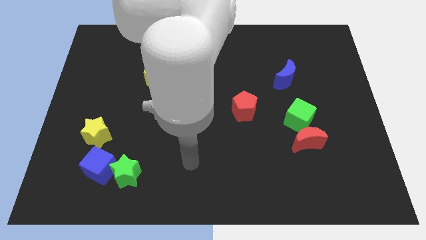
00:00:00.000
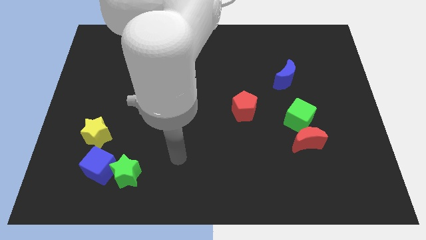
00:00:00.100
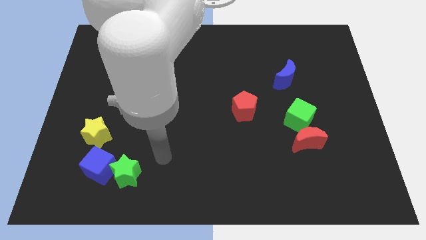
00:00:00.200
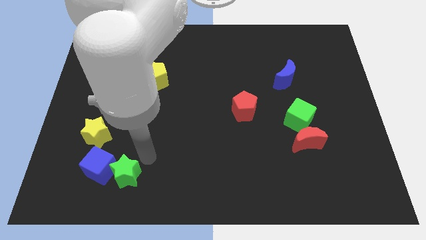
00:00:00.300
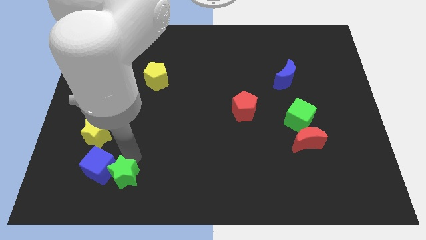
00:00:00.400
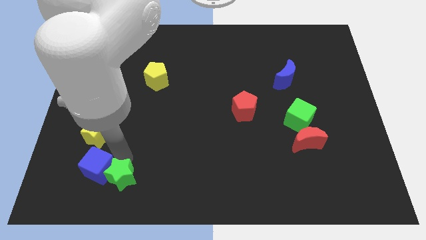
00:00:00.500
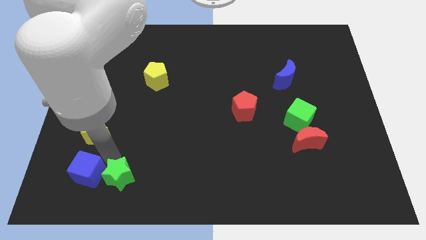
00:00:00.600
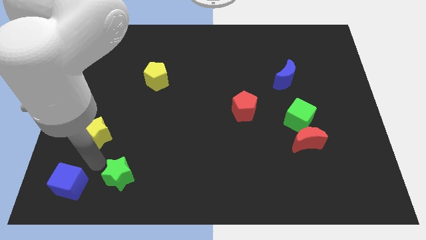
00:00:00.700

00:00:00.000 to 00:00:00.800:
move the green star away from the blue cube

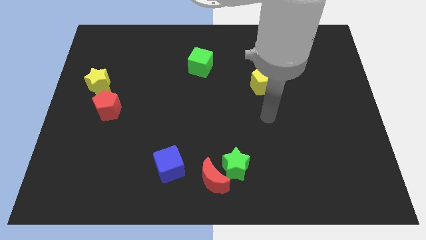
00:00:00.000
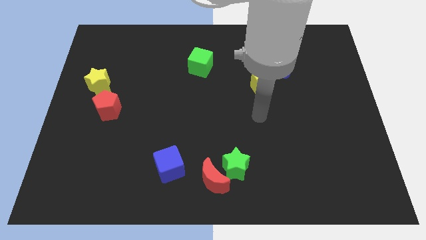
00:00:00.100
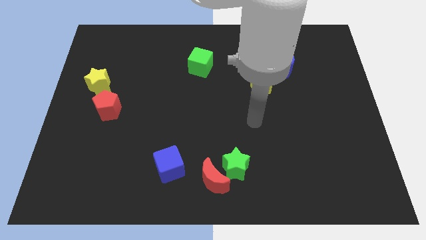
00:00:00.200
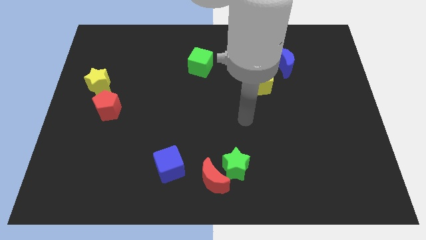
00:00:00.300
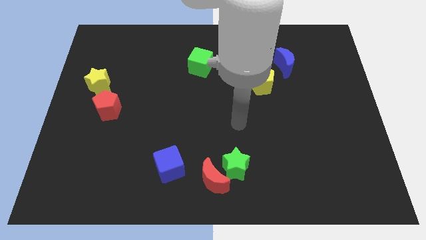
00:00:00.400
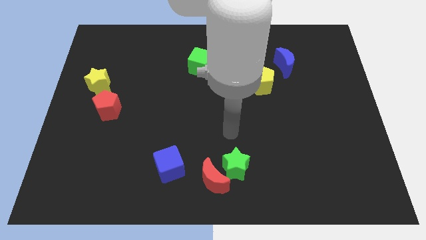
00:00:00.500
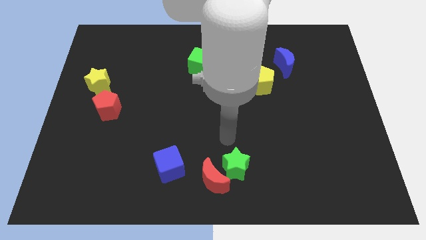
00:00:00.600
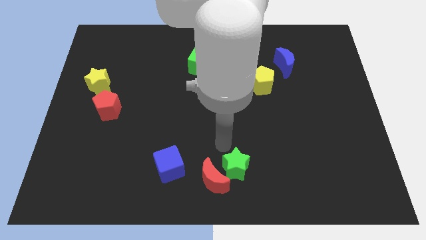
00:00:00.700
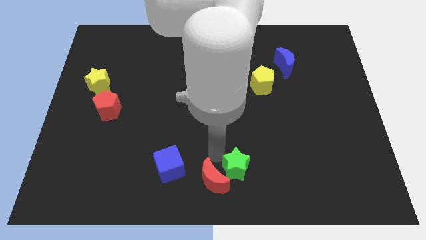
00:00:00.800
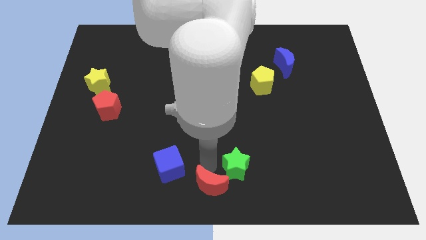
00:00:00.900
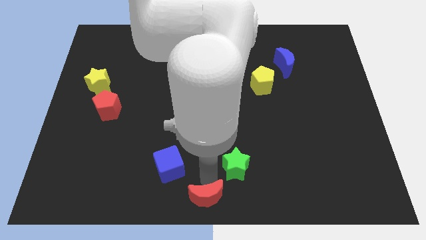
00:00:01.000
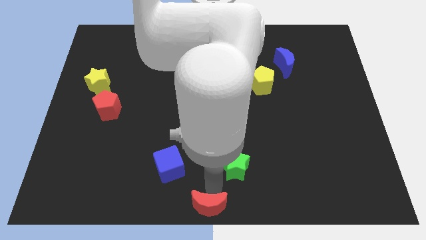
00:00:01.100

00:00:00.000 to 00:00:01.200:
separate the green star from the red moon

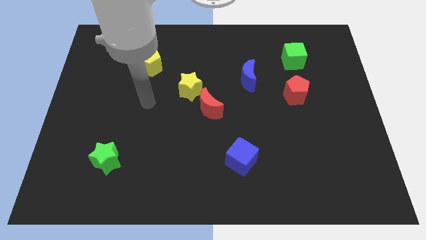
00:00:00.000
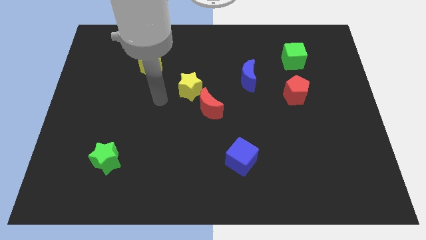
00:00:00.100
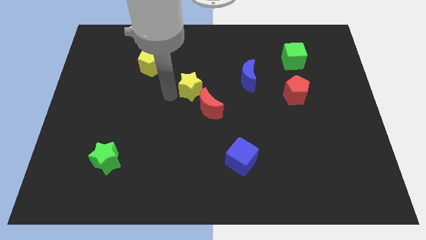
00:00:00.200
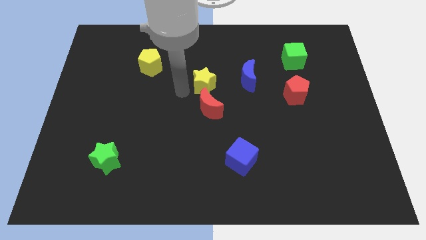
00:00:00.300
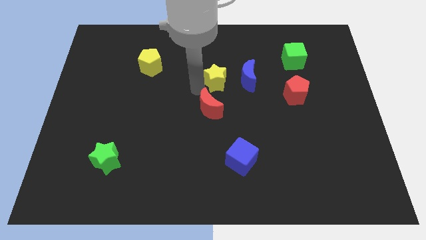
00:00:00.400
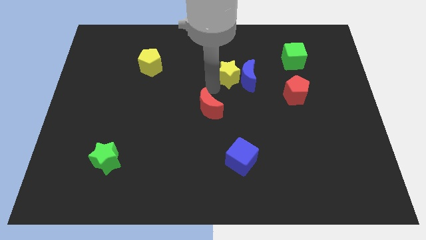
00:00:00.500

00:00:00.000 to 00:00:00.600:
move the red moon away from the yellow star

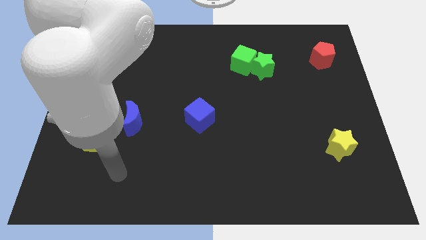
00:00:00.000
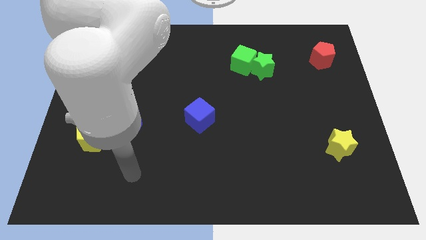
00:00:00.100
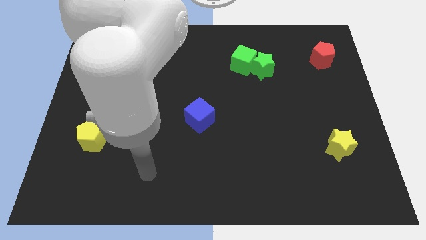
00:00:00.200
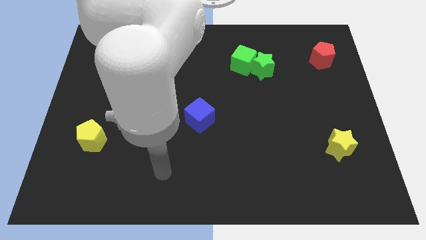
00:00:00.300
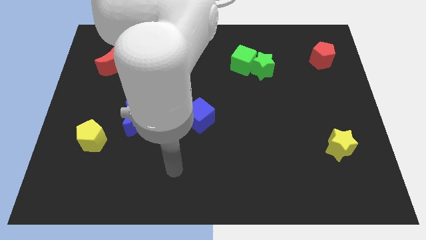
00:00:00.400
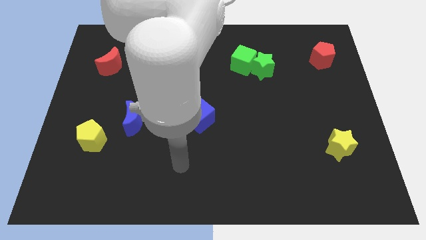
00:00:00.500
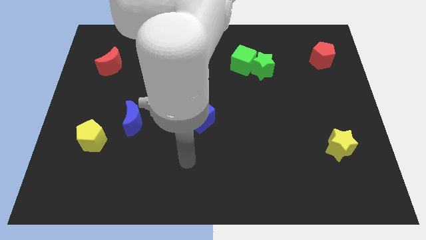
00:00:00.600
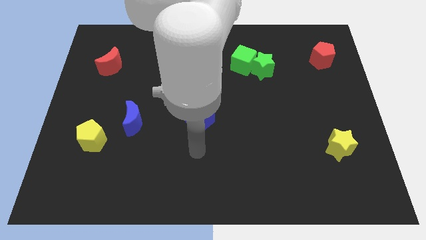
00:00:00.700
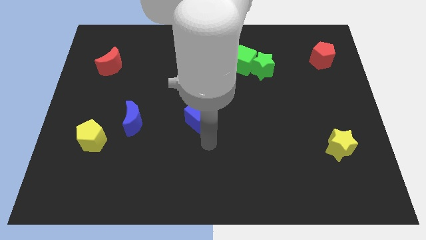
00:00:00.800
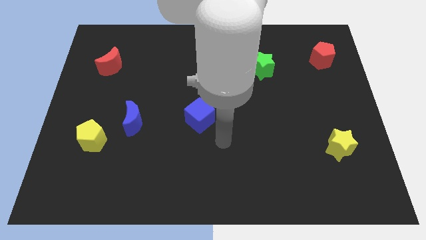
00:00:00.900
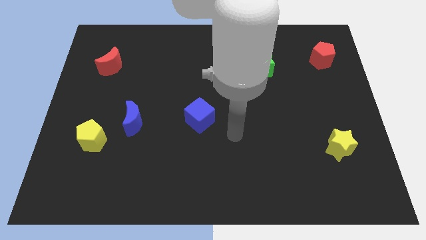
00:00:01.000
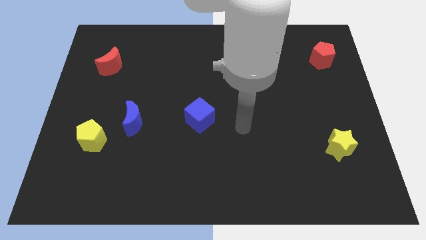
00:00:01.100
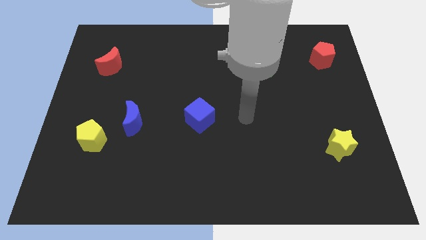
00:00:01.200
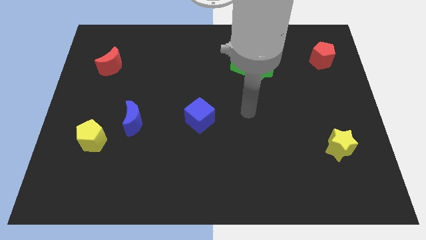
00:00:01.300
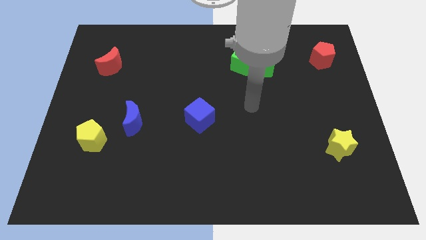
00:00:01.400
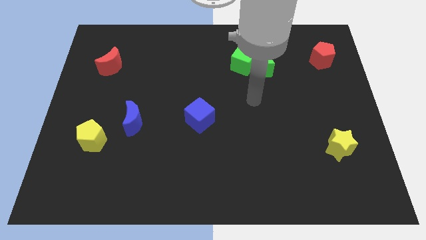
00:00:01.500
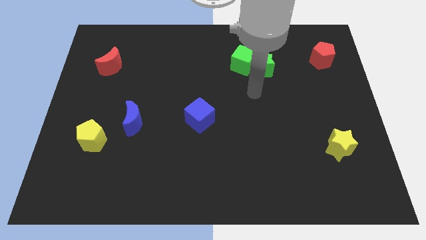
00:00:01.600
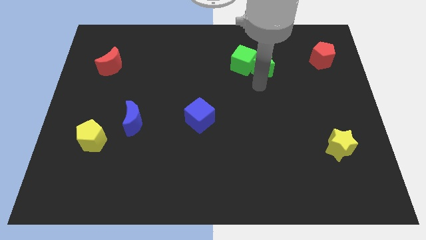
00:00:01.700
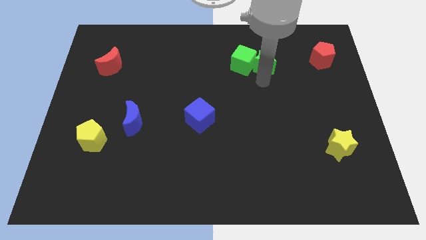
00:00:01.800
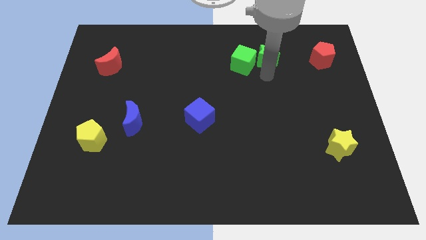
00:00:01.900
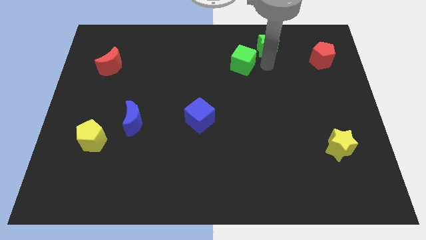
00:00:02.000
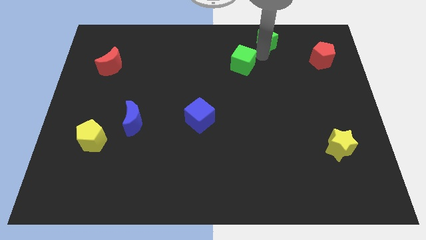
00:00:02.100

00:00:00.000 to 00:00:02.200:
pull the green cube apart from the green star

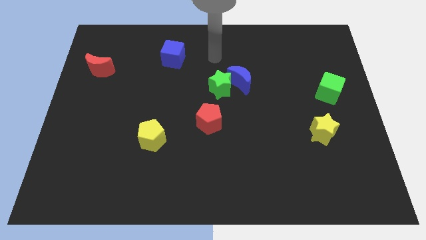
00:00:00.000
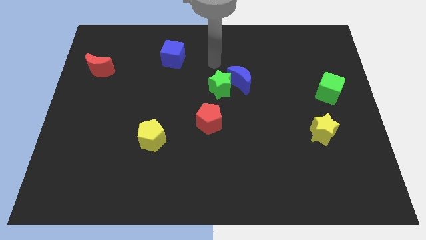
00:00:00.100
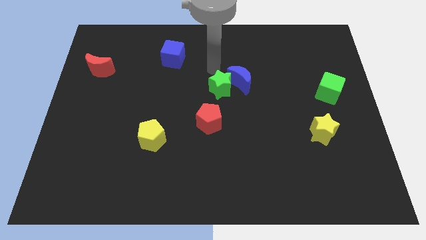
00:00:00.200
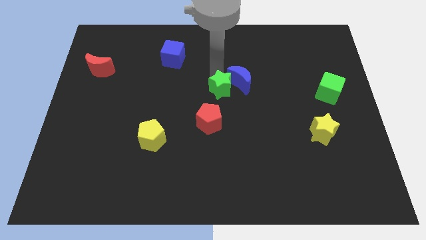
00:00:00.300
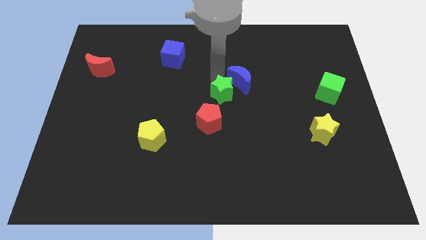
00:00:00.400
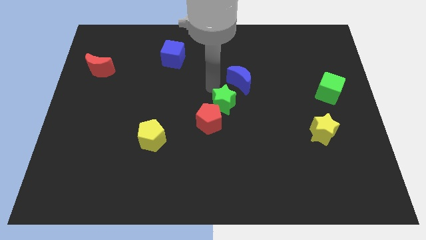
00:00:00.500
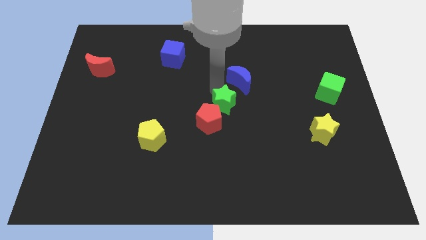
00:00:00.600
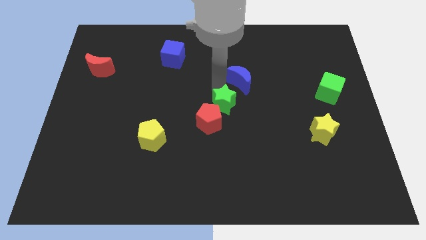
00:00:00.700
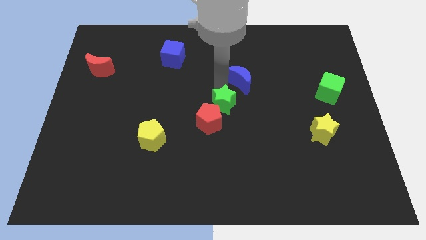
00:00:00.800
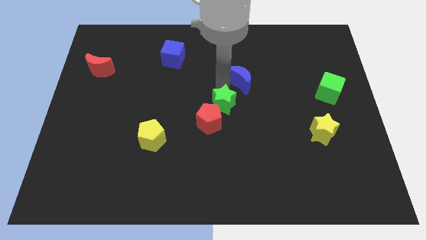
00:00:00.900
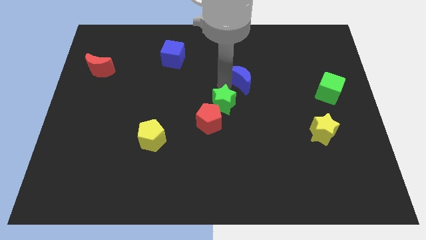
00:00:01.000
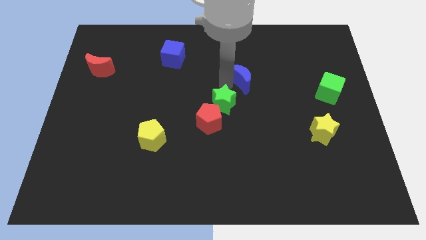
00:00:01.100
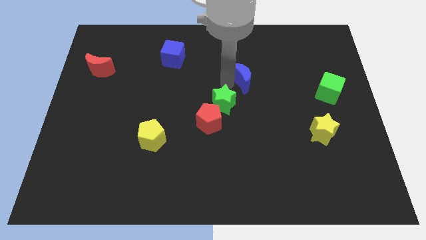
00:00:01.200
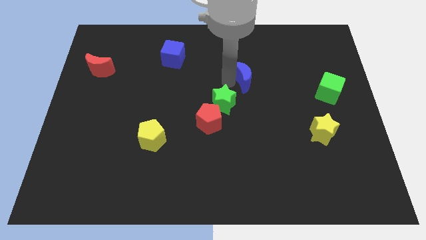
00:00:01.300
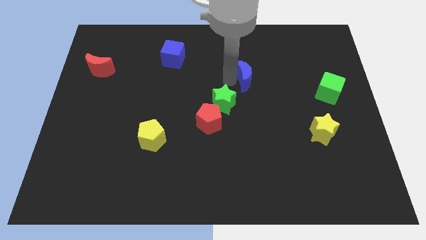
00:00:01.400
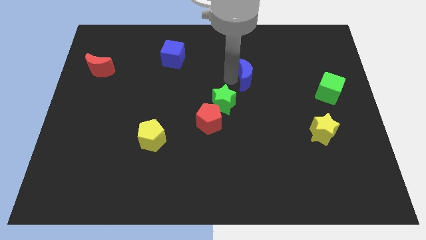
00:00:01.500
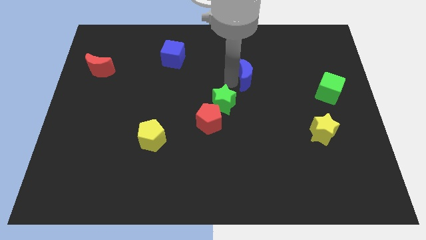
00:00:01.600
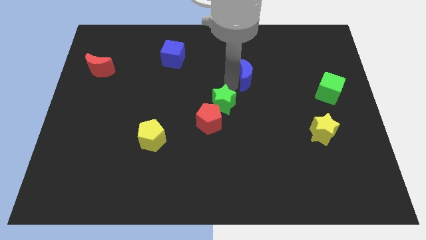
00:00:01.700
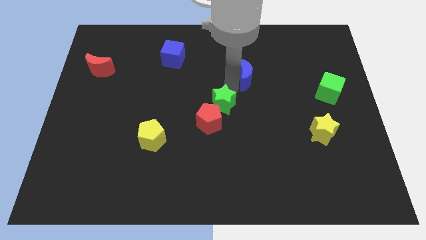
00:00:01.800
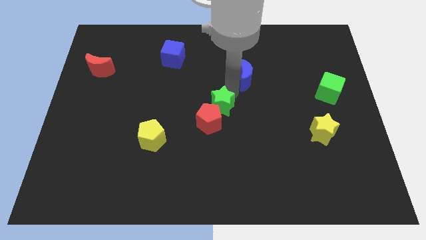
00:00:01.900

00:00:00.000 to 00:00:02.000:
pull the blue moon apart from the green star

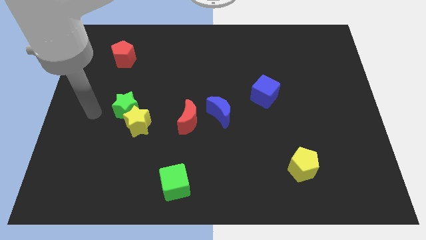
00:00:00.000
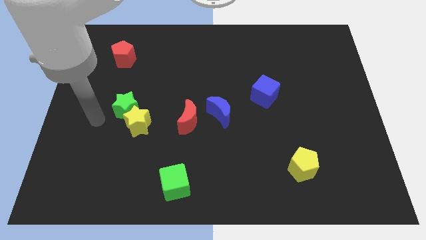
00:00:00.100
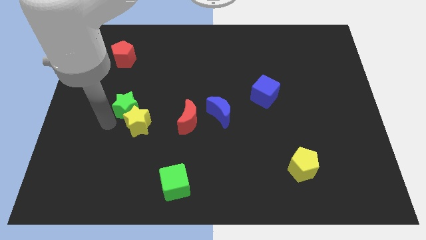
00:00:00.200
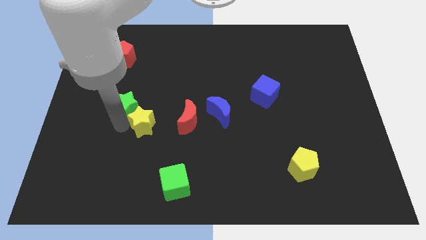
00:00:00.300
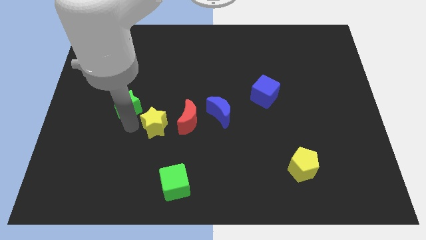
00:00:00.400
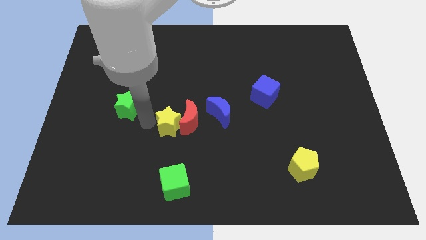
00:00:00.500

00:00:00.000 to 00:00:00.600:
separate the green star from the yellow star

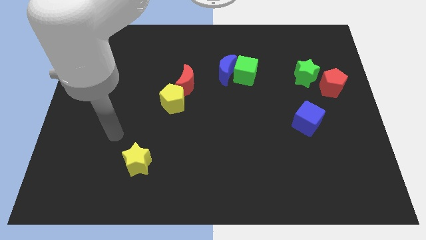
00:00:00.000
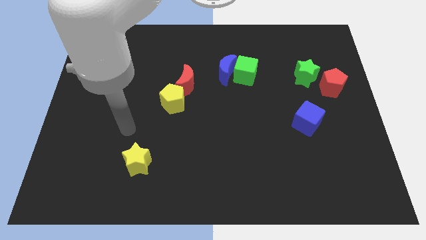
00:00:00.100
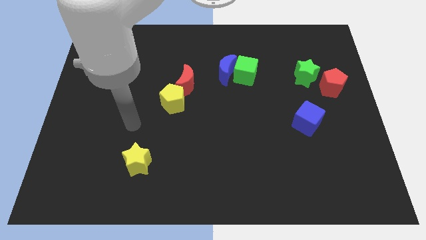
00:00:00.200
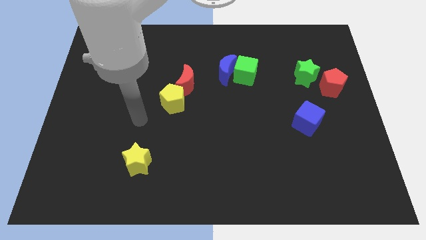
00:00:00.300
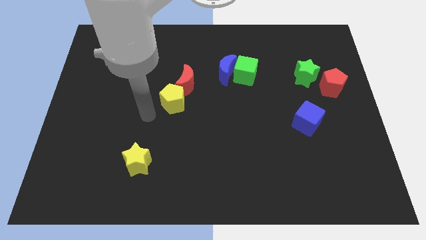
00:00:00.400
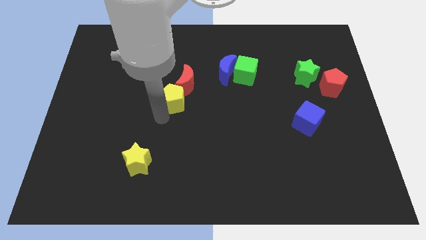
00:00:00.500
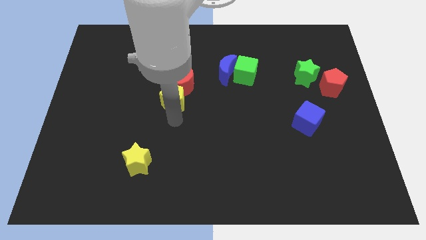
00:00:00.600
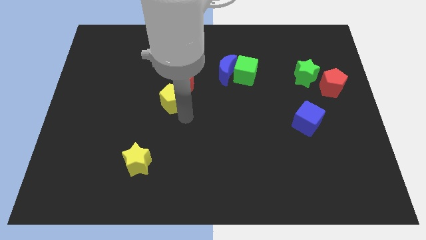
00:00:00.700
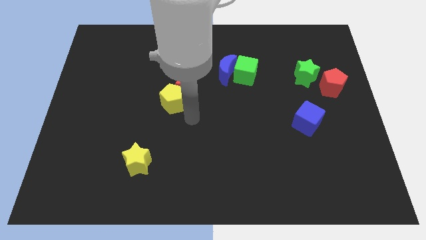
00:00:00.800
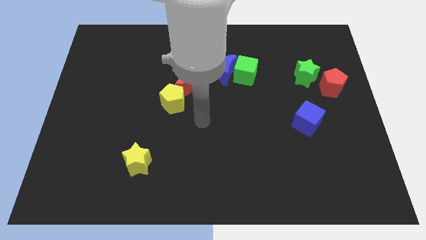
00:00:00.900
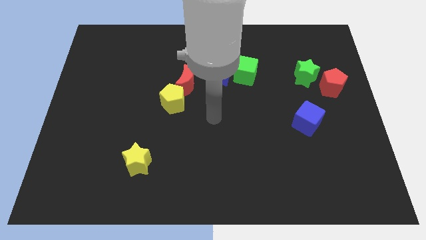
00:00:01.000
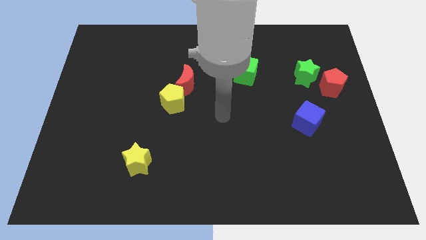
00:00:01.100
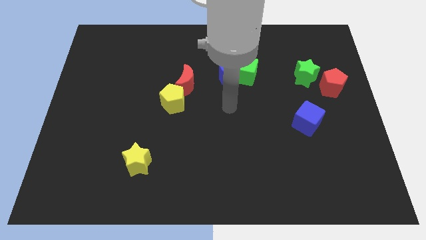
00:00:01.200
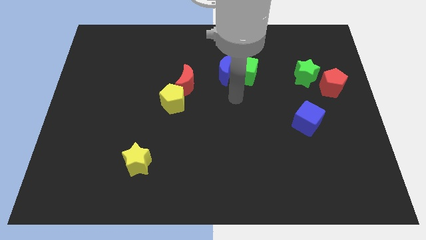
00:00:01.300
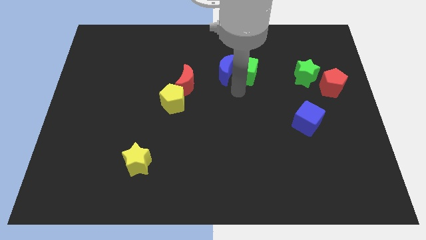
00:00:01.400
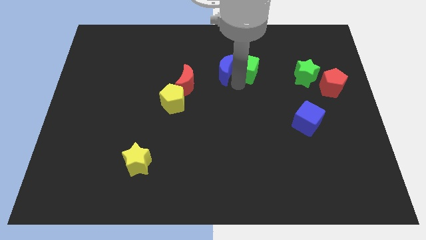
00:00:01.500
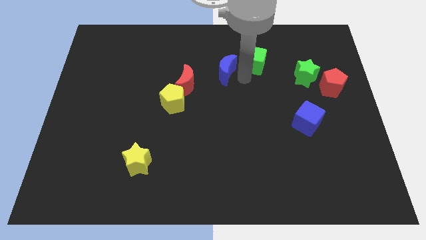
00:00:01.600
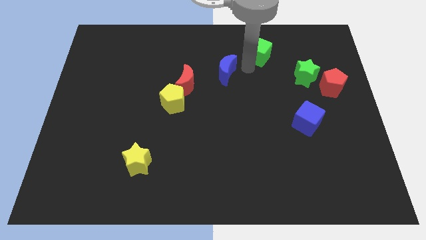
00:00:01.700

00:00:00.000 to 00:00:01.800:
pull the blue moon apart from the green cube
